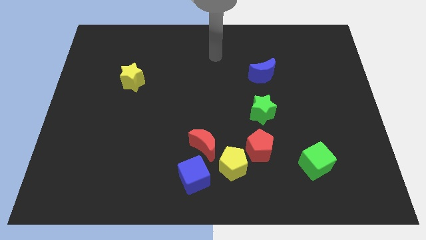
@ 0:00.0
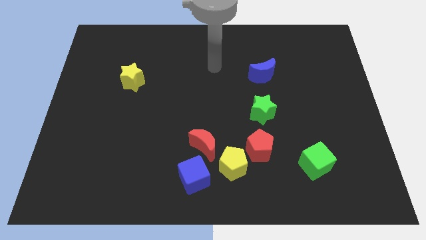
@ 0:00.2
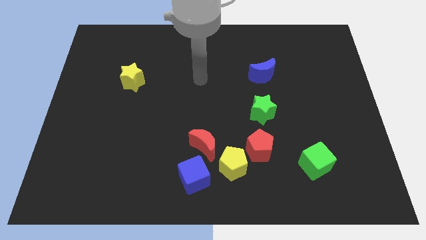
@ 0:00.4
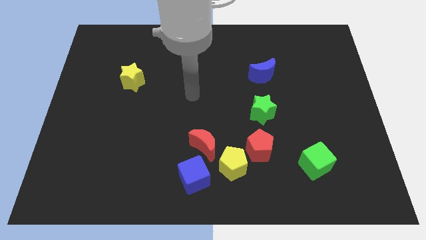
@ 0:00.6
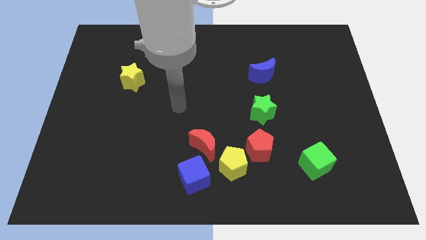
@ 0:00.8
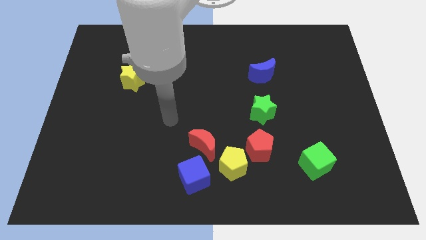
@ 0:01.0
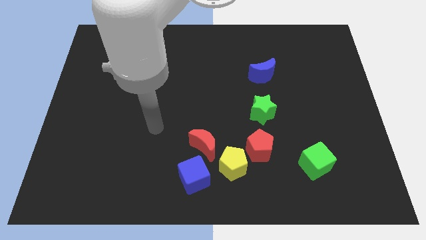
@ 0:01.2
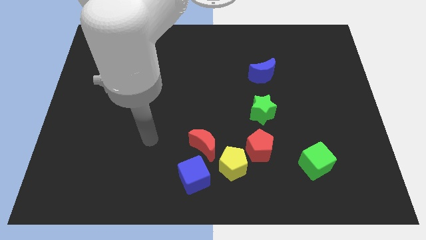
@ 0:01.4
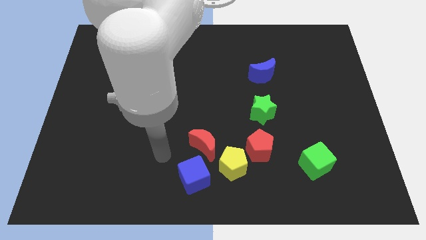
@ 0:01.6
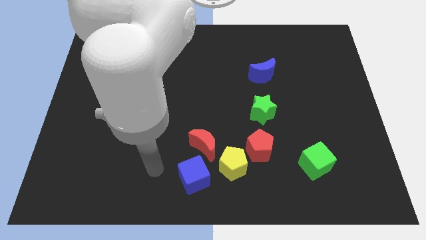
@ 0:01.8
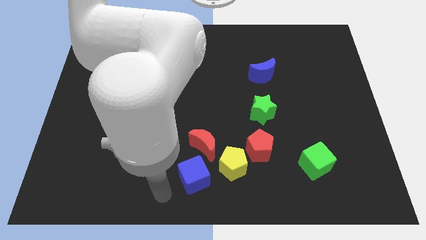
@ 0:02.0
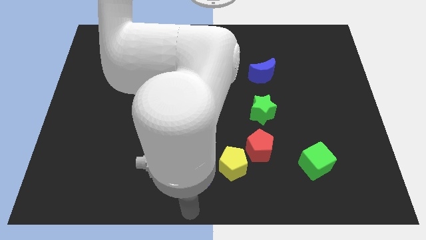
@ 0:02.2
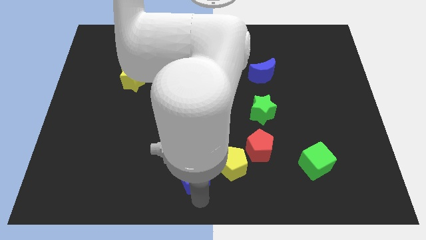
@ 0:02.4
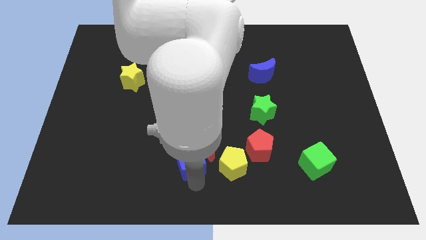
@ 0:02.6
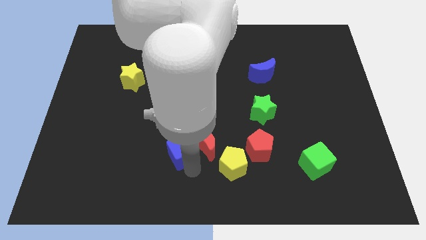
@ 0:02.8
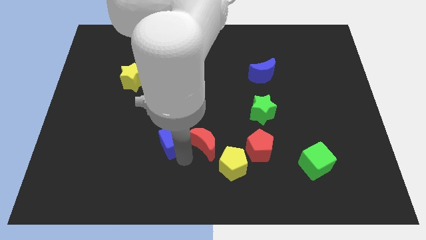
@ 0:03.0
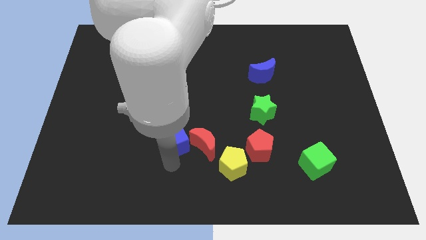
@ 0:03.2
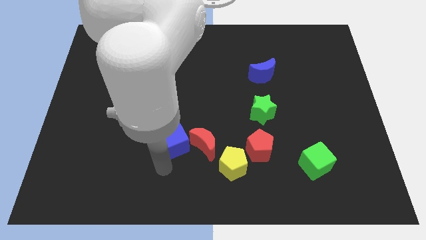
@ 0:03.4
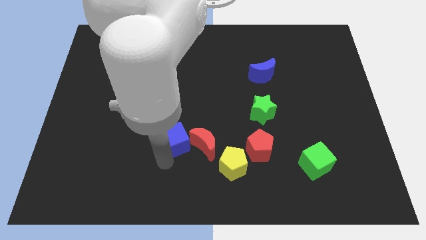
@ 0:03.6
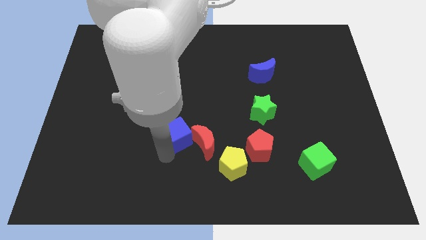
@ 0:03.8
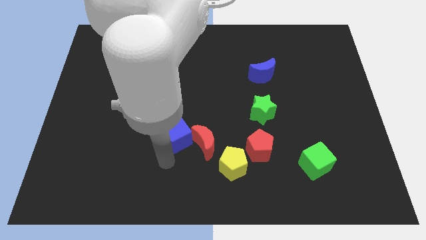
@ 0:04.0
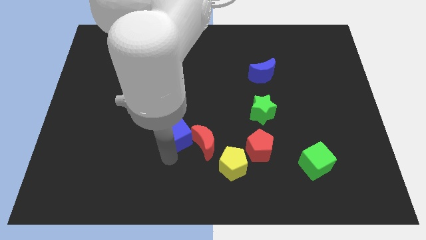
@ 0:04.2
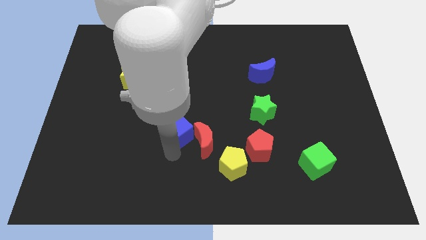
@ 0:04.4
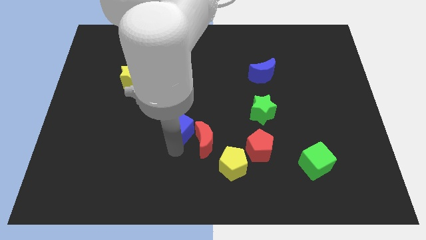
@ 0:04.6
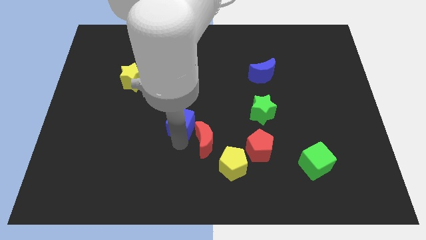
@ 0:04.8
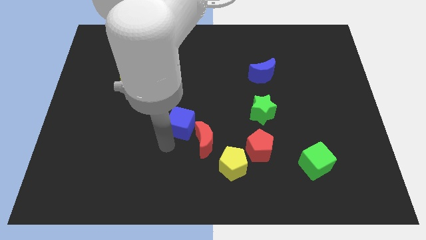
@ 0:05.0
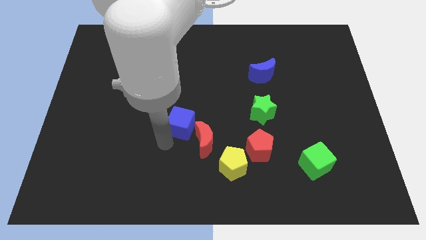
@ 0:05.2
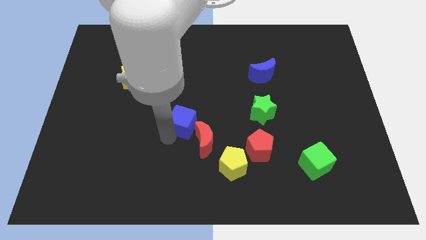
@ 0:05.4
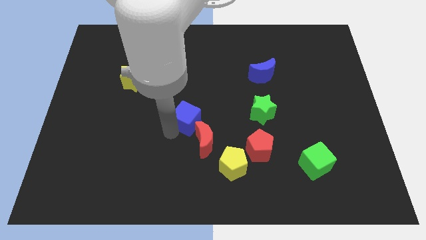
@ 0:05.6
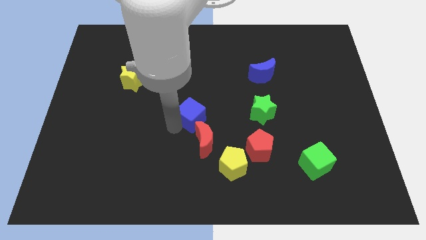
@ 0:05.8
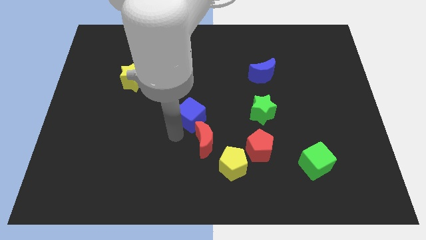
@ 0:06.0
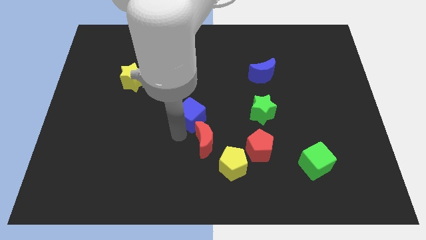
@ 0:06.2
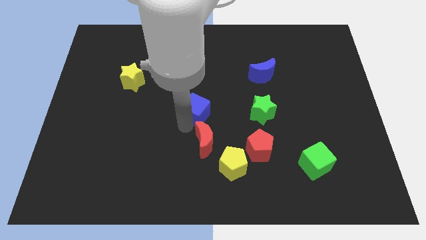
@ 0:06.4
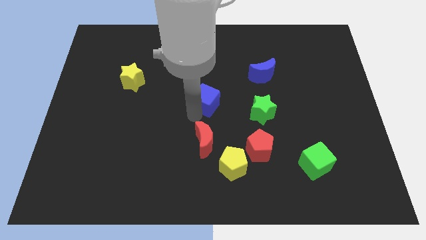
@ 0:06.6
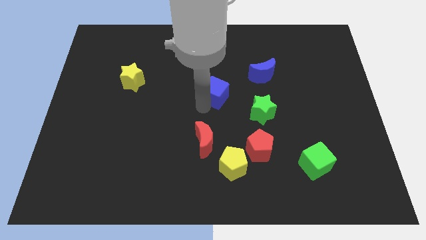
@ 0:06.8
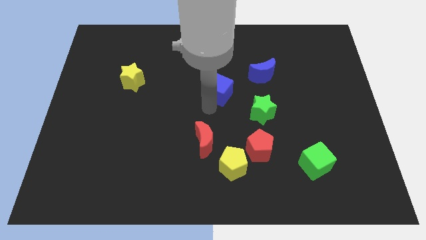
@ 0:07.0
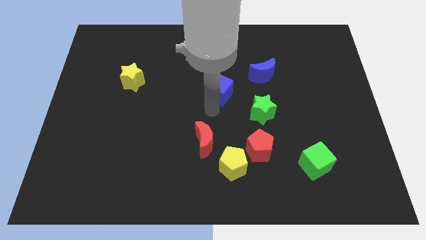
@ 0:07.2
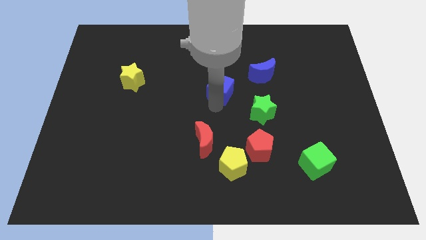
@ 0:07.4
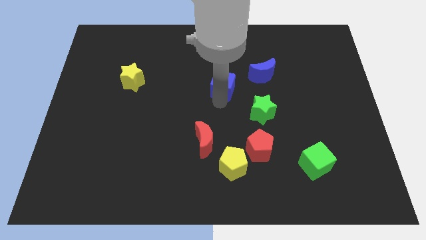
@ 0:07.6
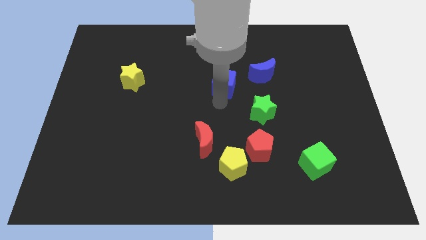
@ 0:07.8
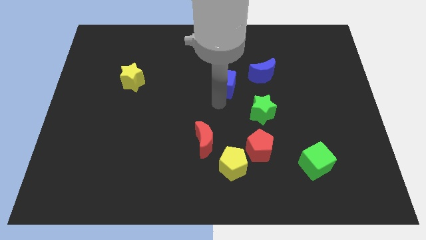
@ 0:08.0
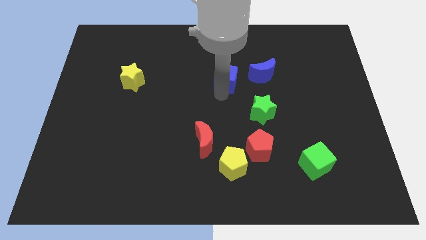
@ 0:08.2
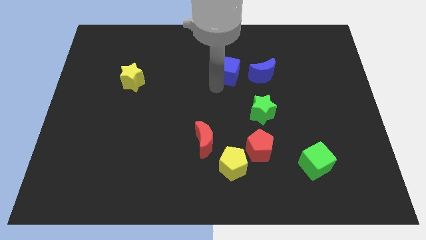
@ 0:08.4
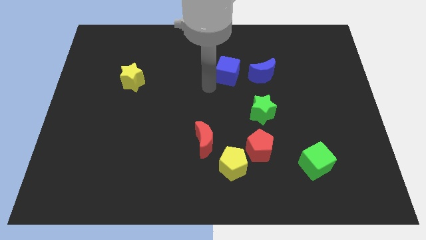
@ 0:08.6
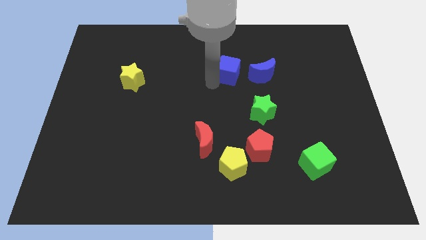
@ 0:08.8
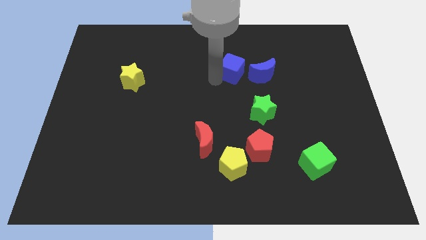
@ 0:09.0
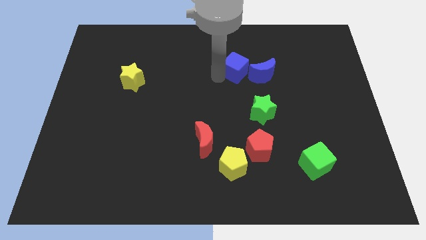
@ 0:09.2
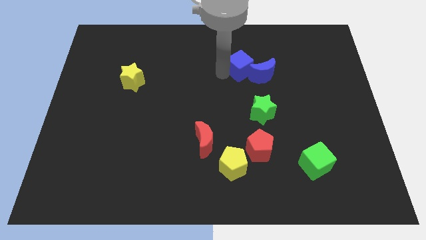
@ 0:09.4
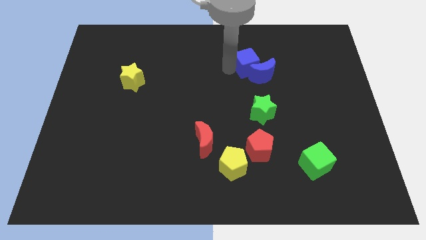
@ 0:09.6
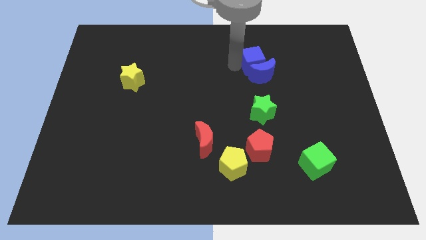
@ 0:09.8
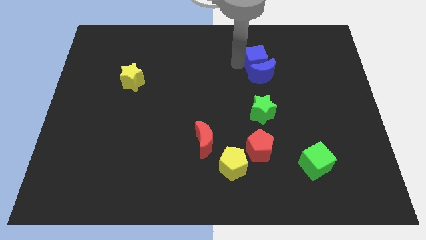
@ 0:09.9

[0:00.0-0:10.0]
slide the blue cube diagonally up and to the right of the blue moon

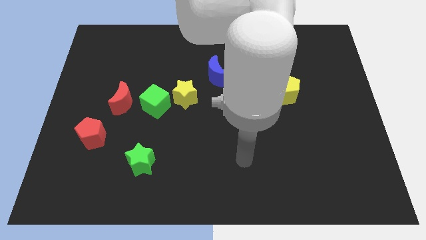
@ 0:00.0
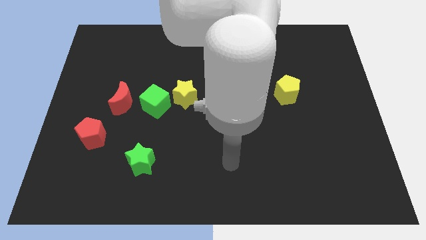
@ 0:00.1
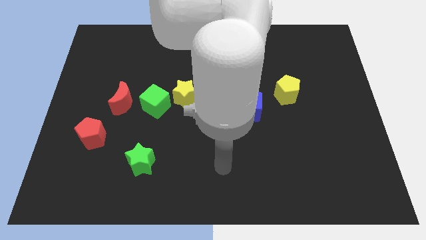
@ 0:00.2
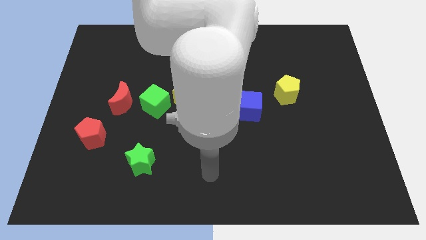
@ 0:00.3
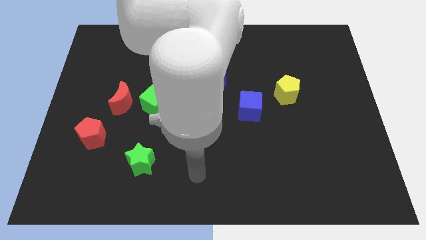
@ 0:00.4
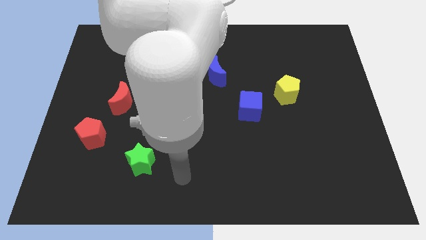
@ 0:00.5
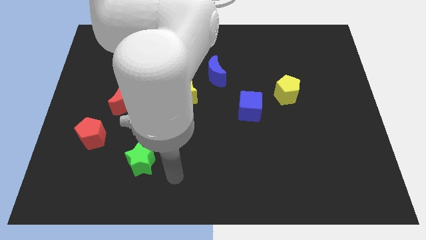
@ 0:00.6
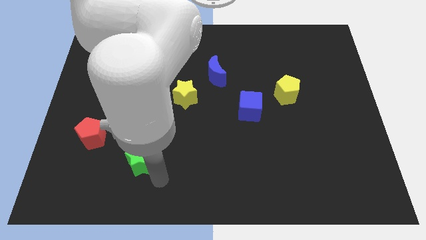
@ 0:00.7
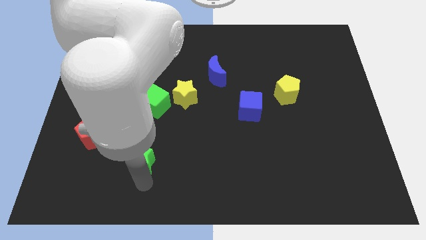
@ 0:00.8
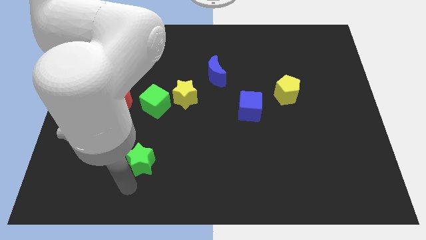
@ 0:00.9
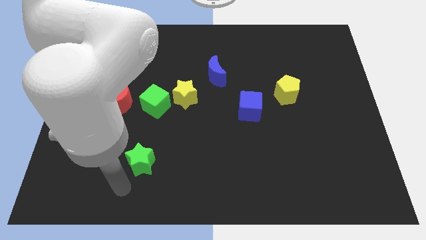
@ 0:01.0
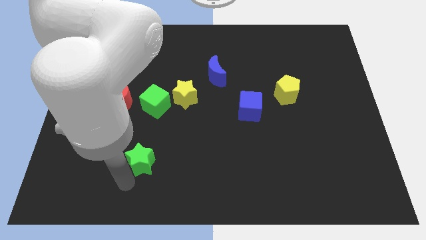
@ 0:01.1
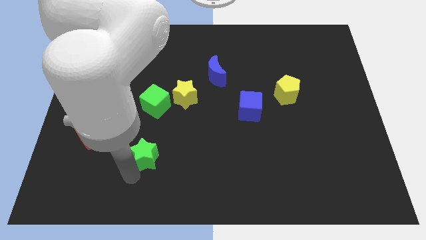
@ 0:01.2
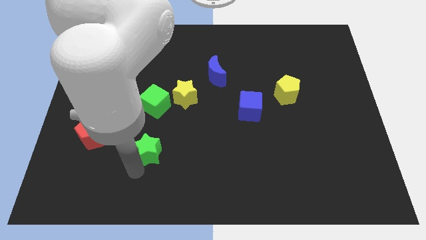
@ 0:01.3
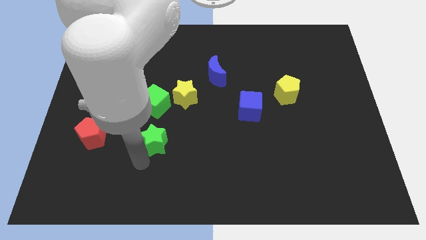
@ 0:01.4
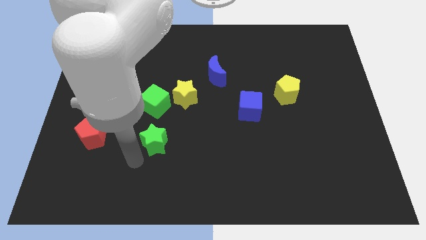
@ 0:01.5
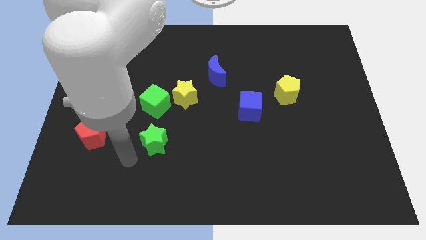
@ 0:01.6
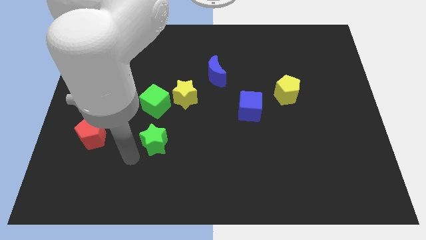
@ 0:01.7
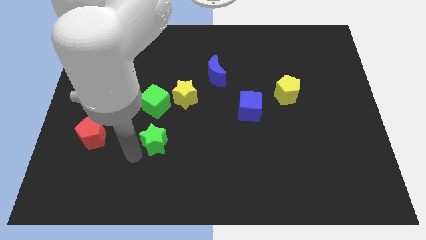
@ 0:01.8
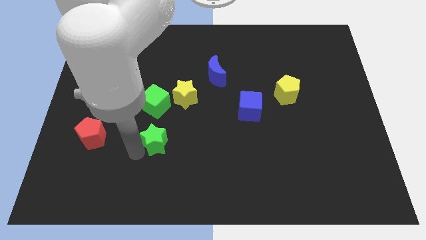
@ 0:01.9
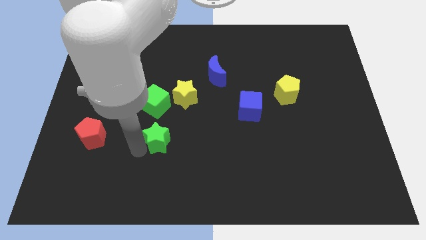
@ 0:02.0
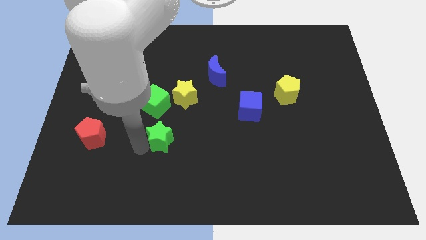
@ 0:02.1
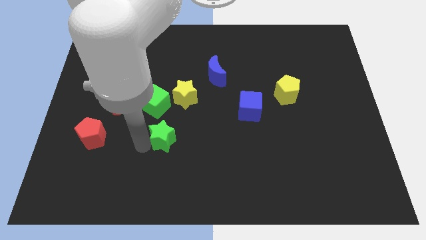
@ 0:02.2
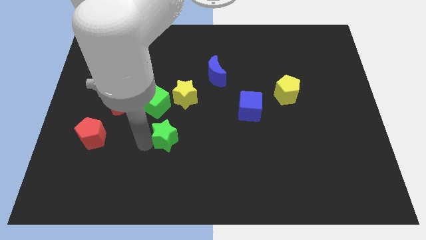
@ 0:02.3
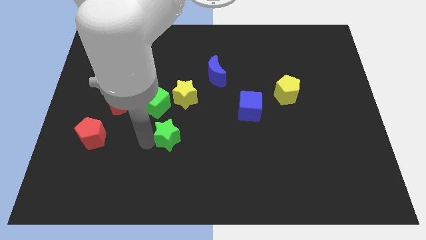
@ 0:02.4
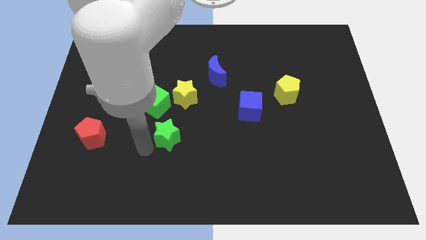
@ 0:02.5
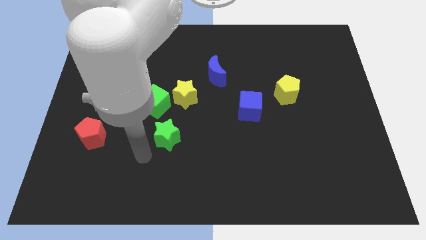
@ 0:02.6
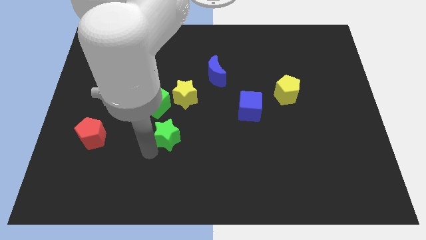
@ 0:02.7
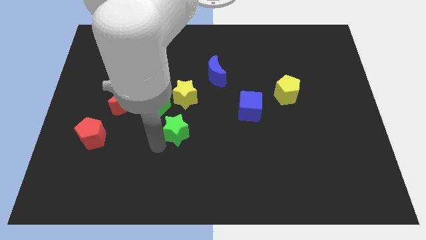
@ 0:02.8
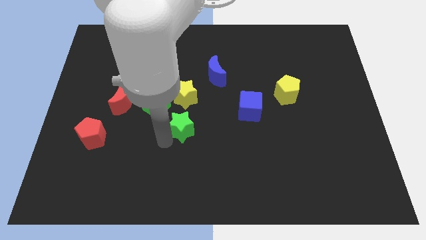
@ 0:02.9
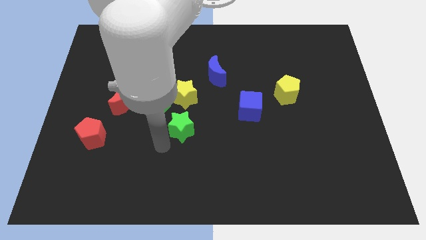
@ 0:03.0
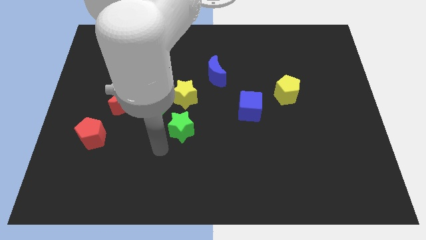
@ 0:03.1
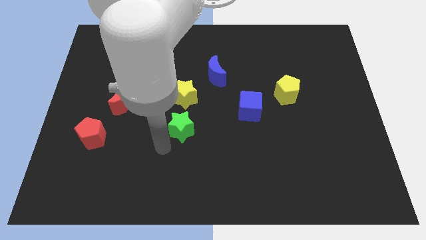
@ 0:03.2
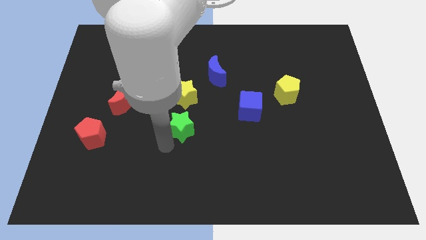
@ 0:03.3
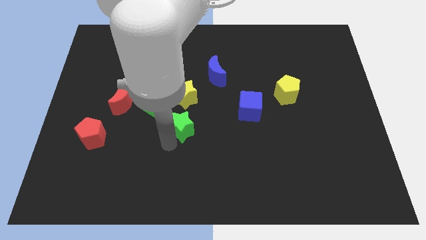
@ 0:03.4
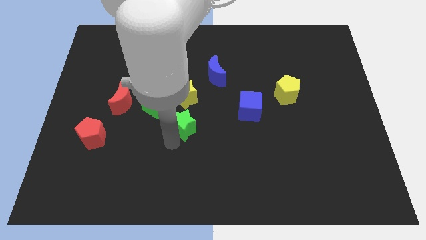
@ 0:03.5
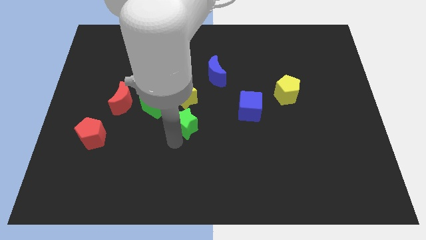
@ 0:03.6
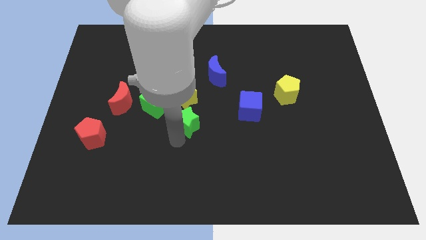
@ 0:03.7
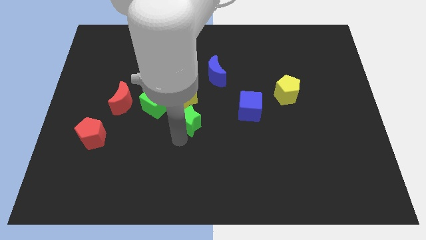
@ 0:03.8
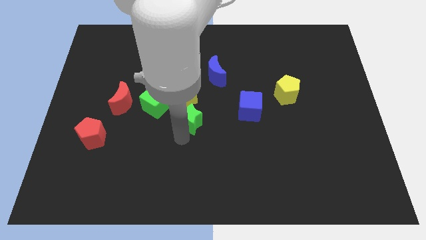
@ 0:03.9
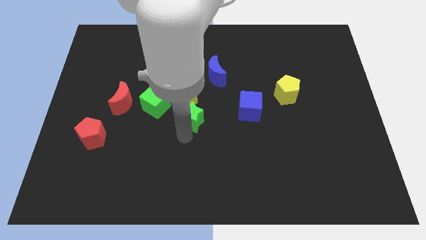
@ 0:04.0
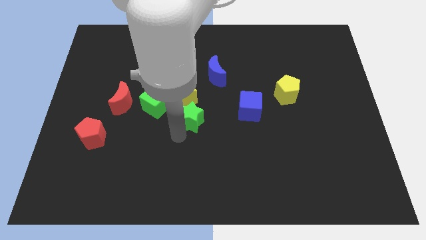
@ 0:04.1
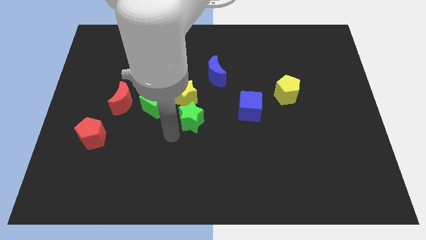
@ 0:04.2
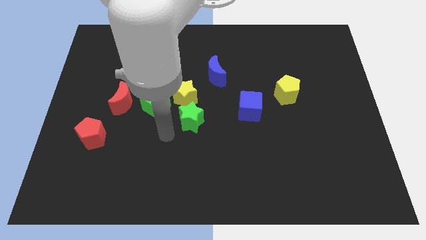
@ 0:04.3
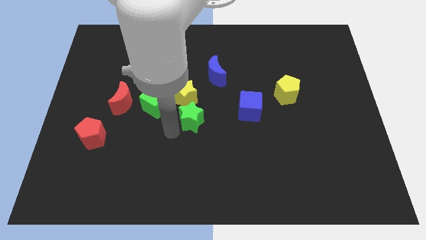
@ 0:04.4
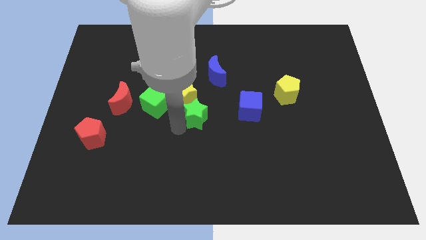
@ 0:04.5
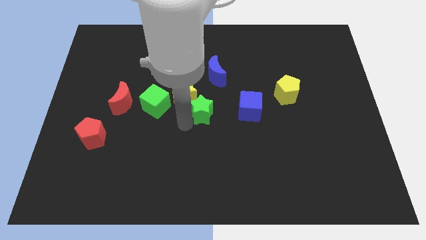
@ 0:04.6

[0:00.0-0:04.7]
slide the green star to the bottom side of the blue moon
